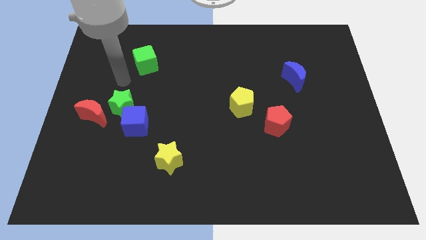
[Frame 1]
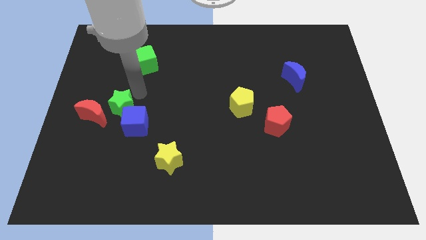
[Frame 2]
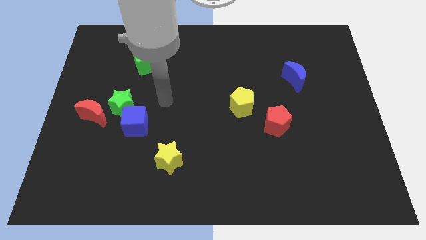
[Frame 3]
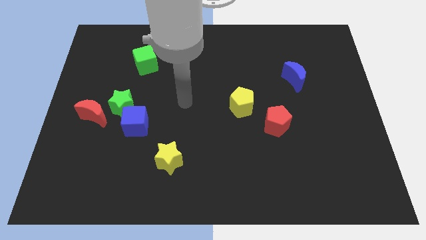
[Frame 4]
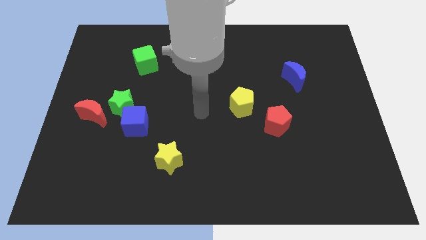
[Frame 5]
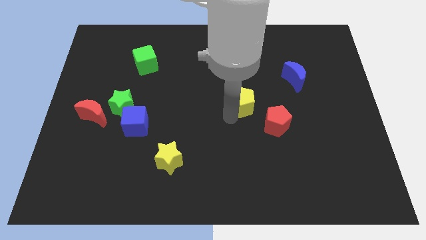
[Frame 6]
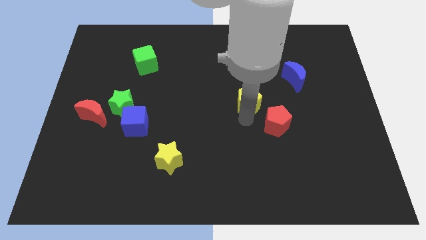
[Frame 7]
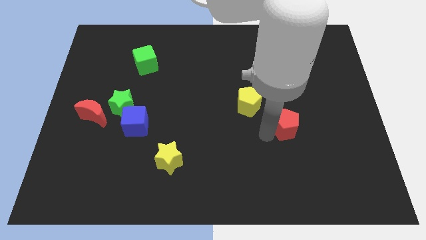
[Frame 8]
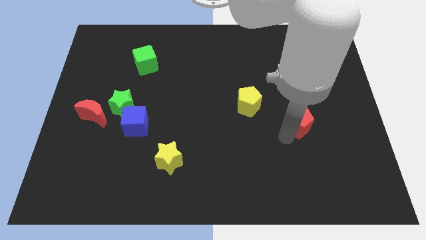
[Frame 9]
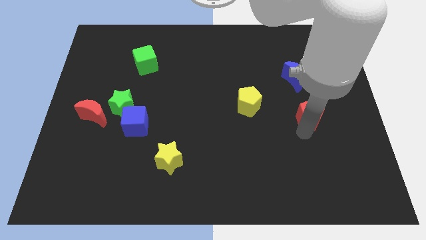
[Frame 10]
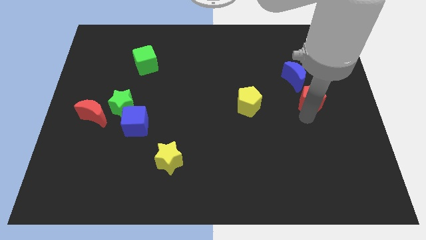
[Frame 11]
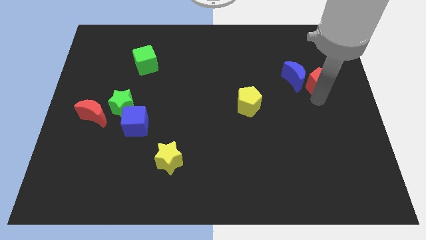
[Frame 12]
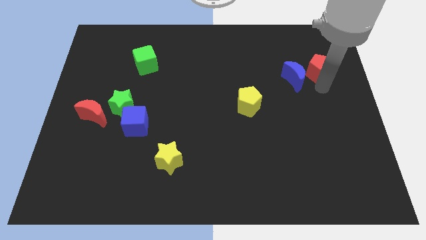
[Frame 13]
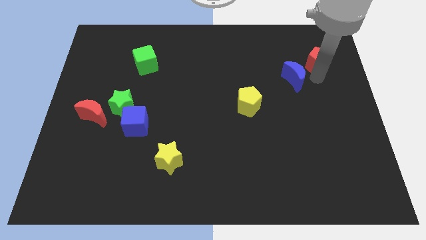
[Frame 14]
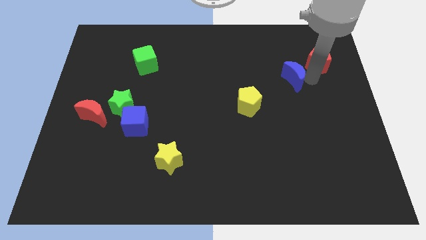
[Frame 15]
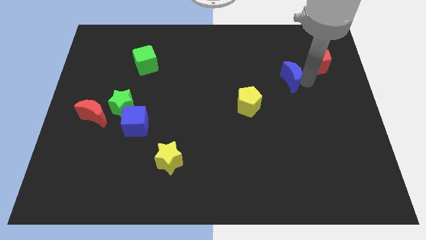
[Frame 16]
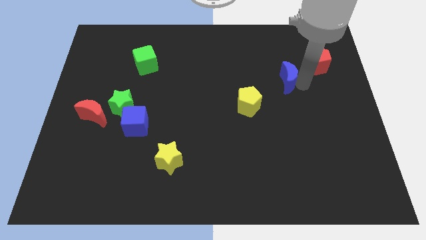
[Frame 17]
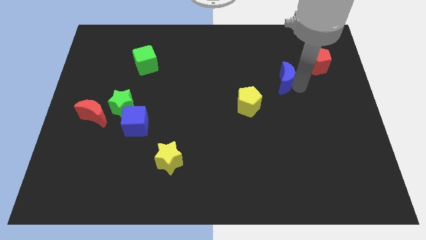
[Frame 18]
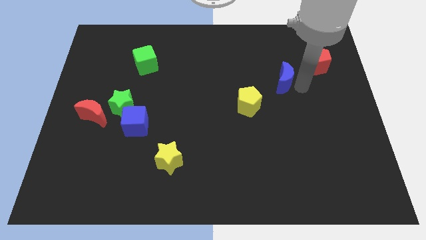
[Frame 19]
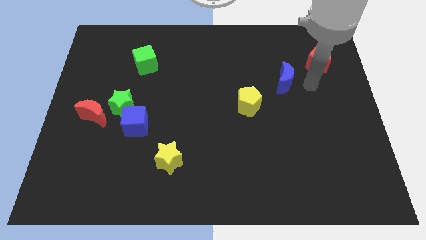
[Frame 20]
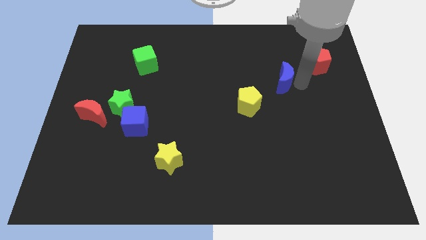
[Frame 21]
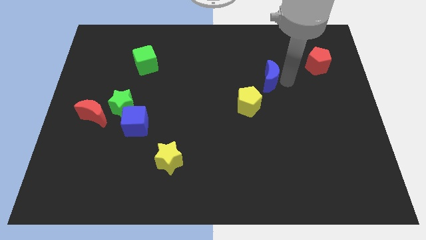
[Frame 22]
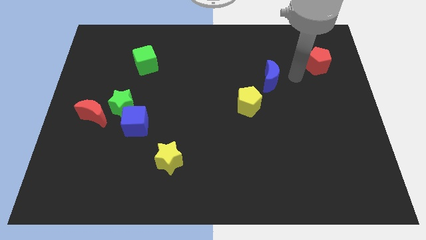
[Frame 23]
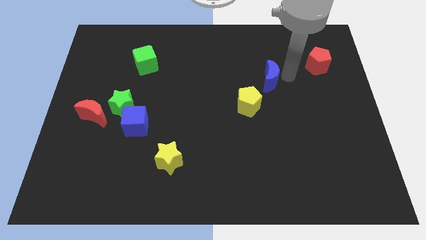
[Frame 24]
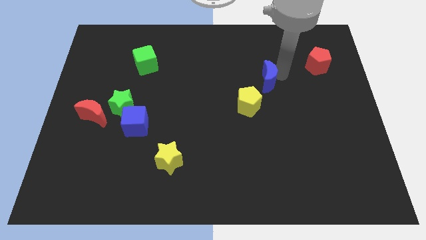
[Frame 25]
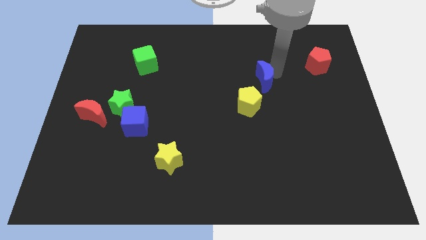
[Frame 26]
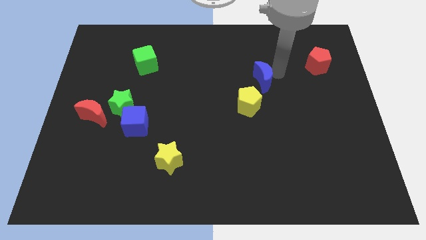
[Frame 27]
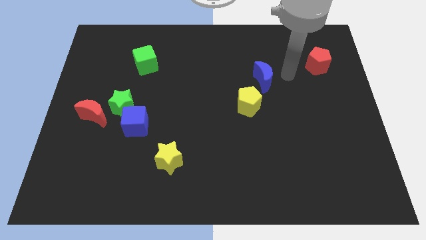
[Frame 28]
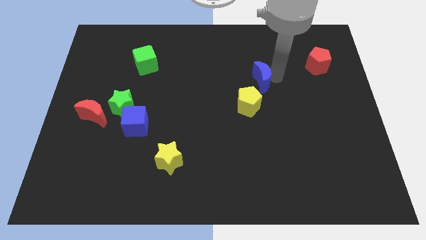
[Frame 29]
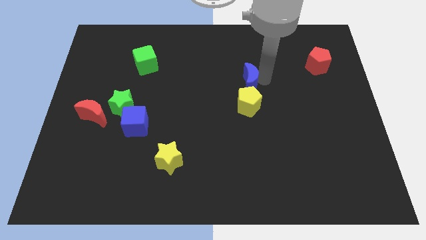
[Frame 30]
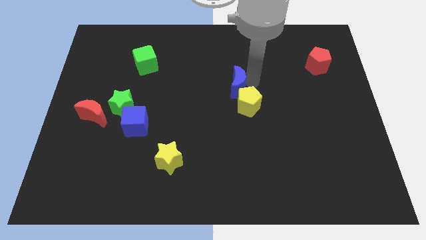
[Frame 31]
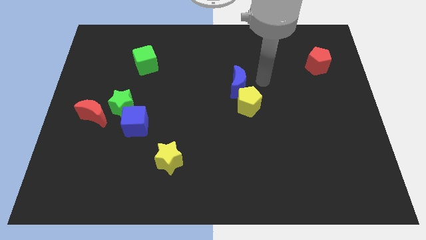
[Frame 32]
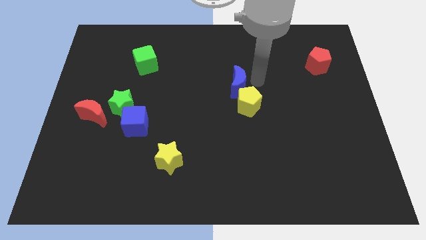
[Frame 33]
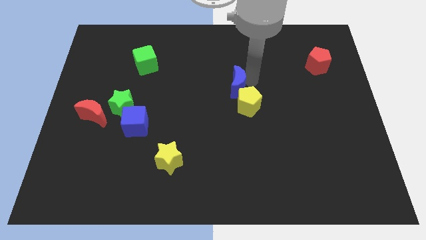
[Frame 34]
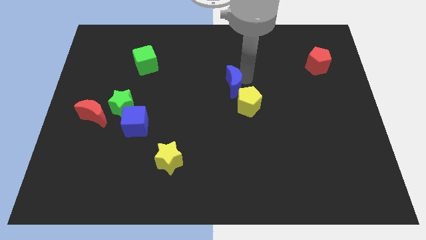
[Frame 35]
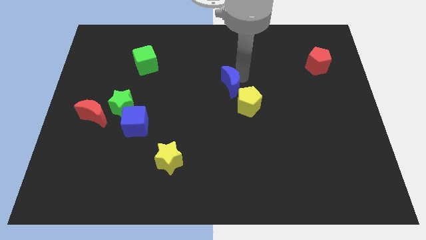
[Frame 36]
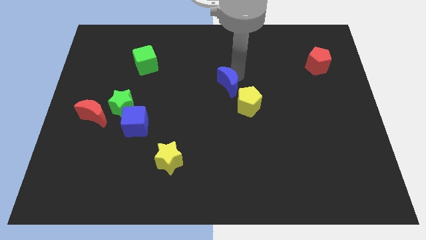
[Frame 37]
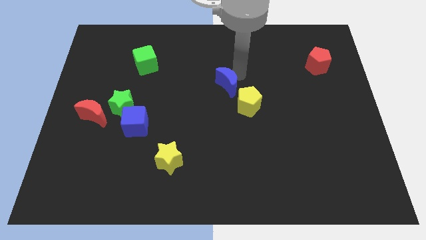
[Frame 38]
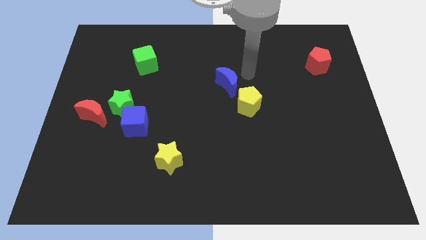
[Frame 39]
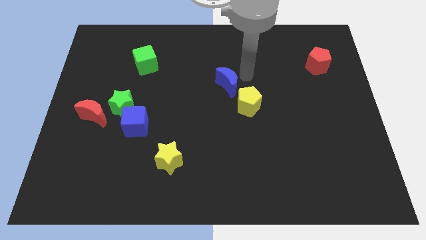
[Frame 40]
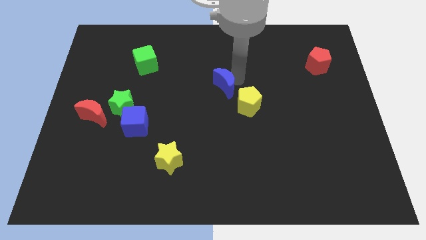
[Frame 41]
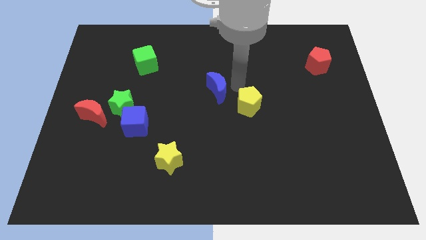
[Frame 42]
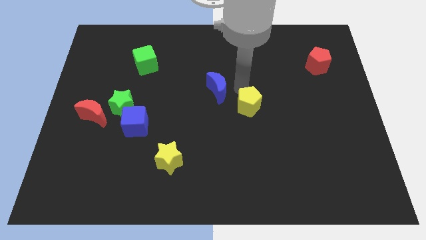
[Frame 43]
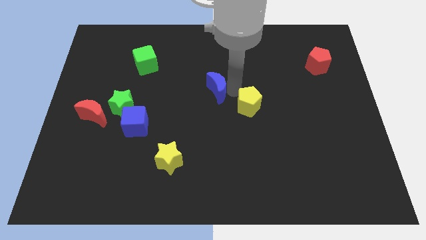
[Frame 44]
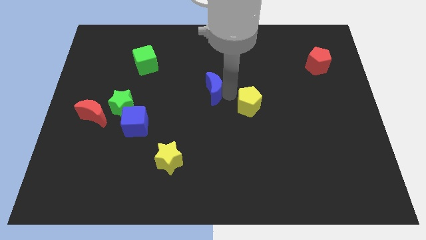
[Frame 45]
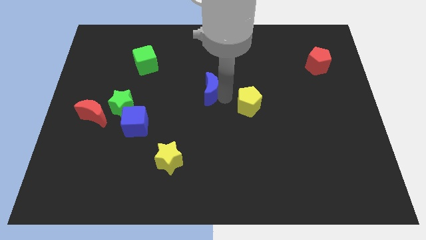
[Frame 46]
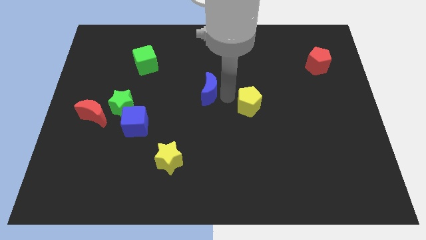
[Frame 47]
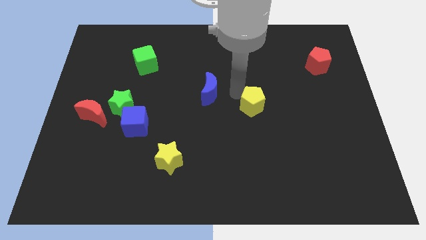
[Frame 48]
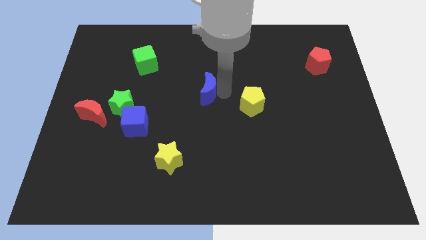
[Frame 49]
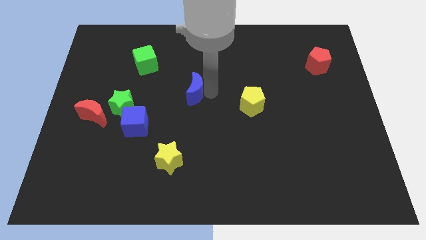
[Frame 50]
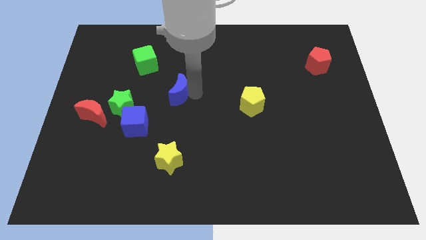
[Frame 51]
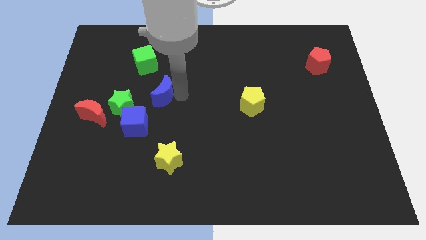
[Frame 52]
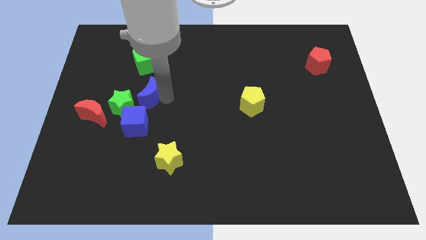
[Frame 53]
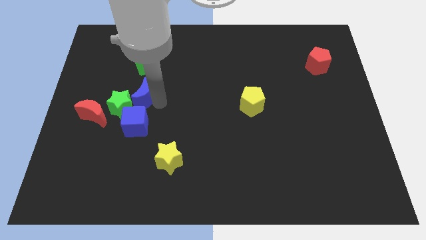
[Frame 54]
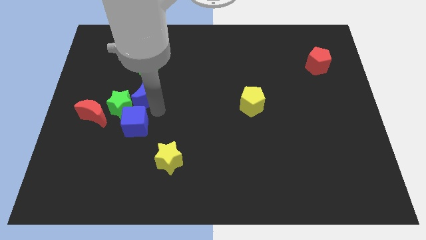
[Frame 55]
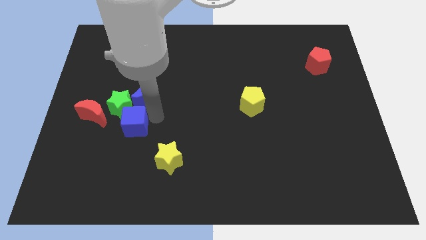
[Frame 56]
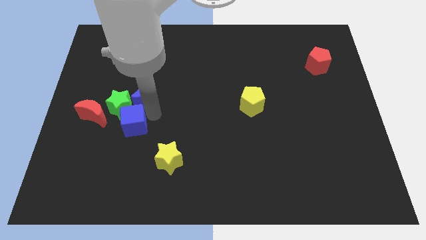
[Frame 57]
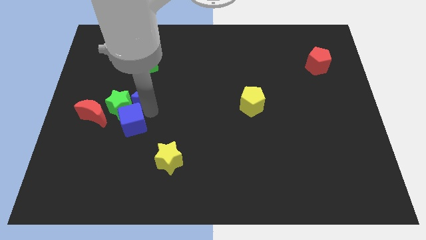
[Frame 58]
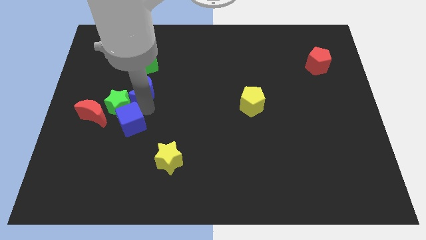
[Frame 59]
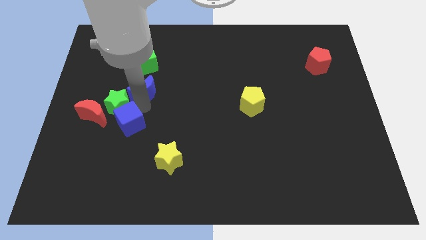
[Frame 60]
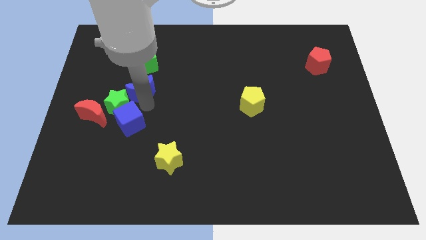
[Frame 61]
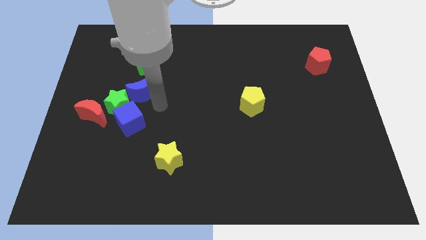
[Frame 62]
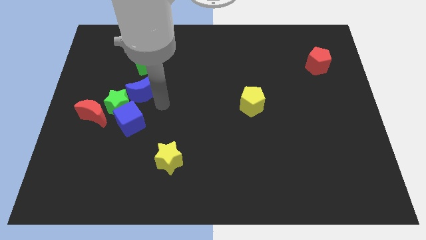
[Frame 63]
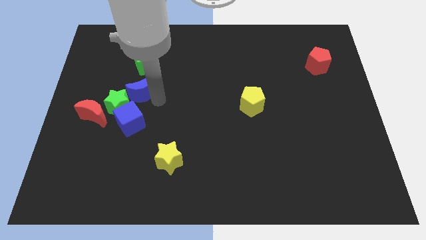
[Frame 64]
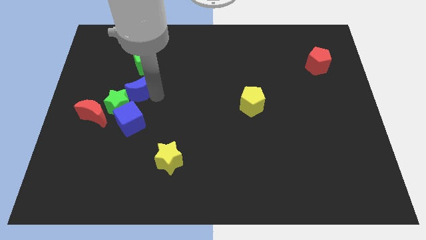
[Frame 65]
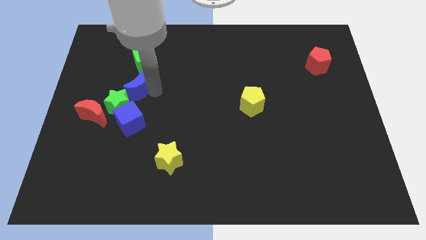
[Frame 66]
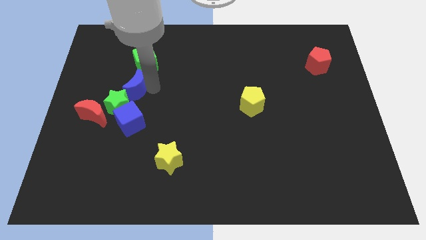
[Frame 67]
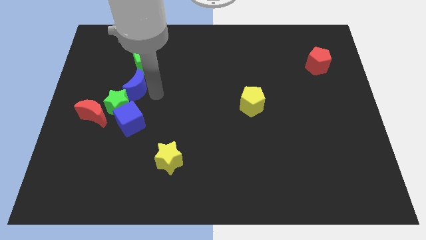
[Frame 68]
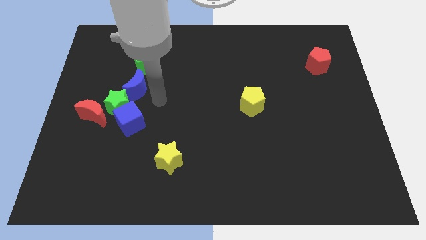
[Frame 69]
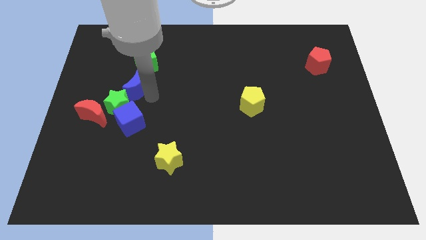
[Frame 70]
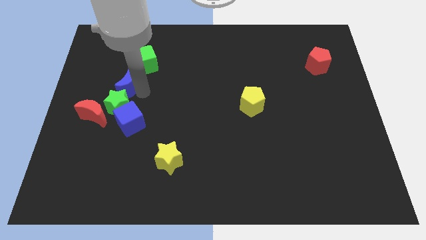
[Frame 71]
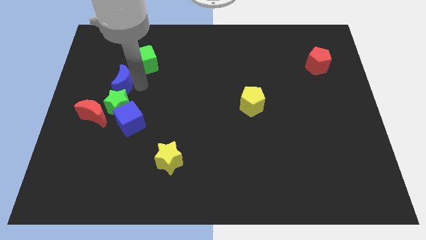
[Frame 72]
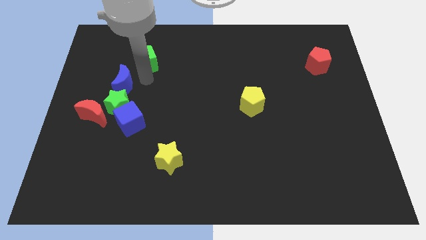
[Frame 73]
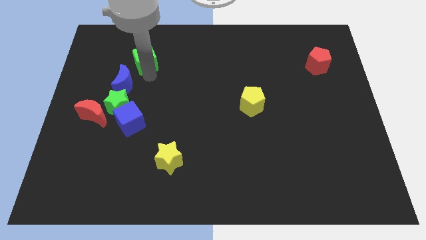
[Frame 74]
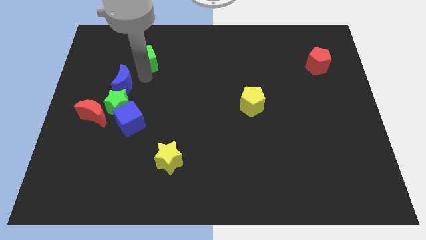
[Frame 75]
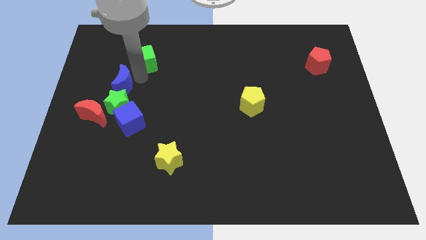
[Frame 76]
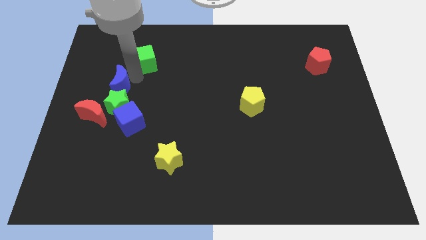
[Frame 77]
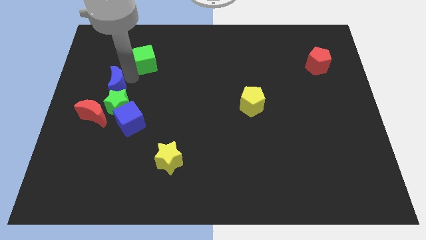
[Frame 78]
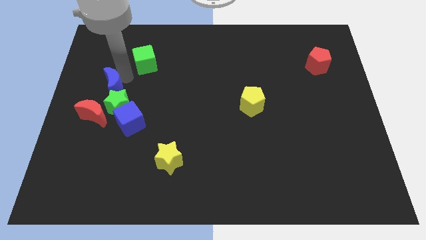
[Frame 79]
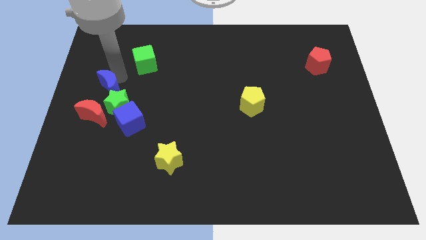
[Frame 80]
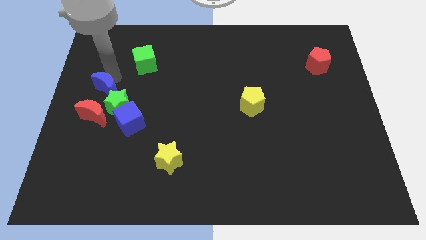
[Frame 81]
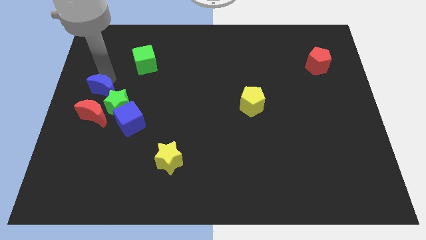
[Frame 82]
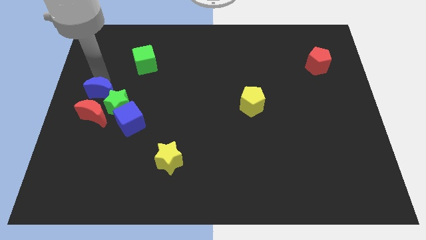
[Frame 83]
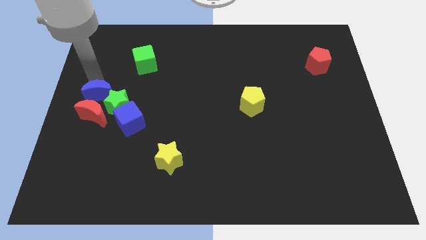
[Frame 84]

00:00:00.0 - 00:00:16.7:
move the blue moon next to the red moon
